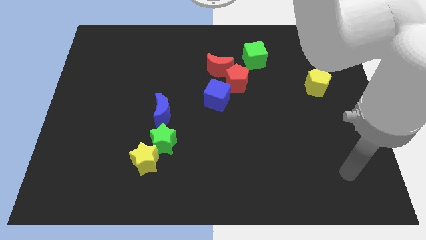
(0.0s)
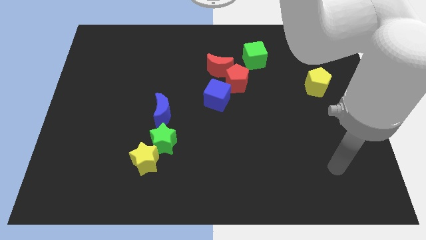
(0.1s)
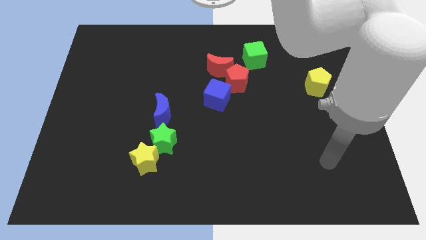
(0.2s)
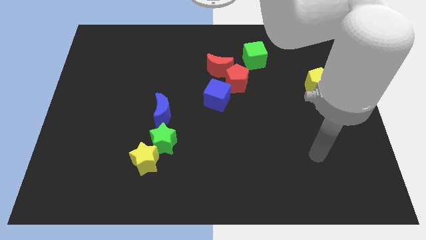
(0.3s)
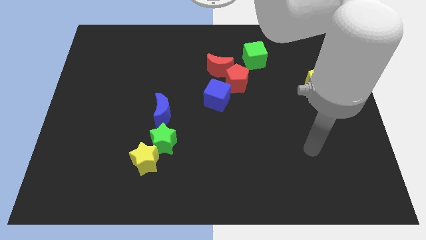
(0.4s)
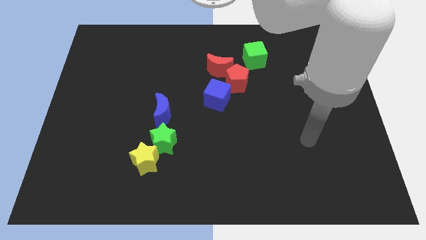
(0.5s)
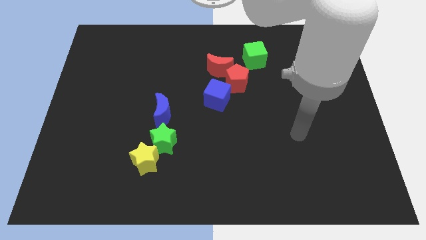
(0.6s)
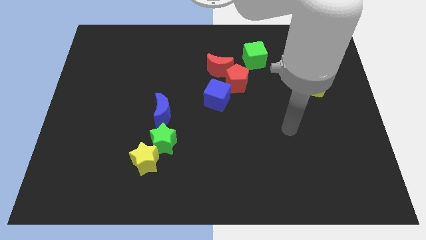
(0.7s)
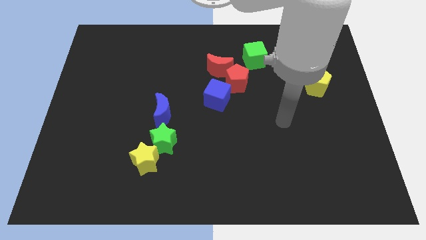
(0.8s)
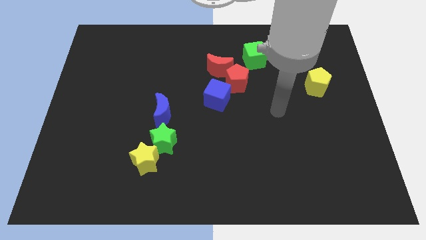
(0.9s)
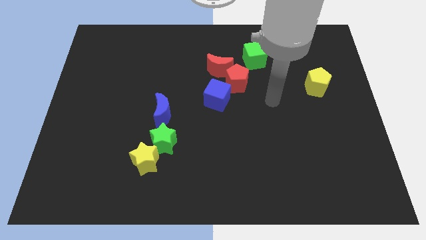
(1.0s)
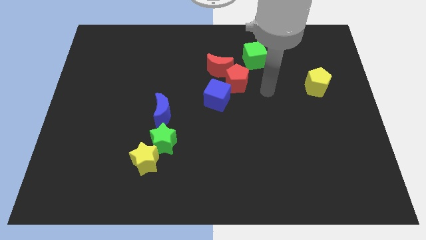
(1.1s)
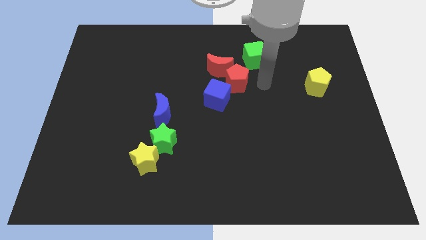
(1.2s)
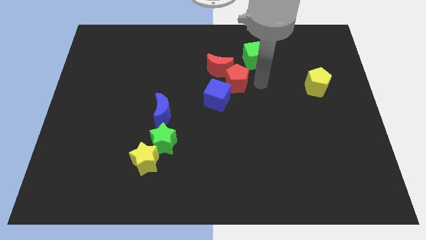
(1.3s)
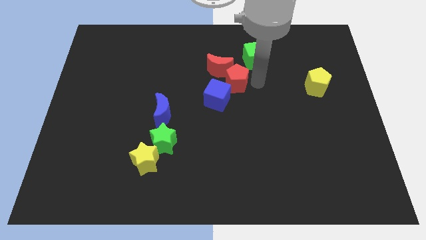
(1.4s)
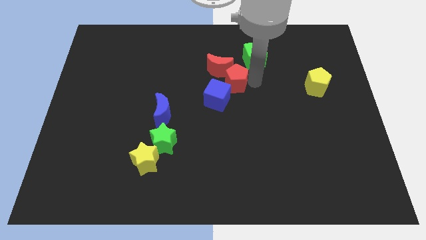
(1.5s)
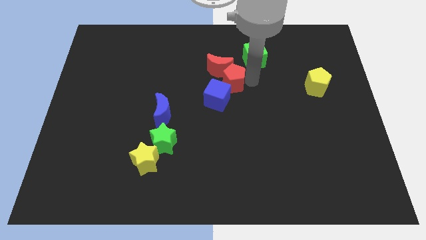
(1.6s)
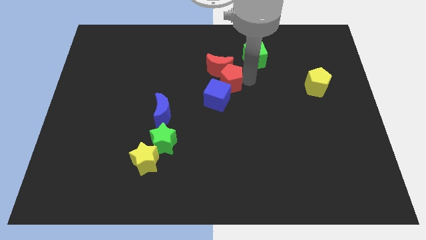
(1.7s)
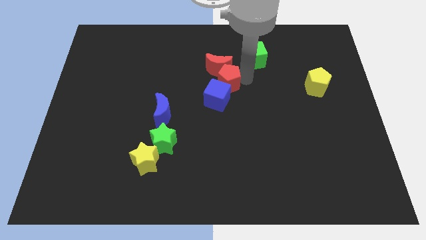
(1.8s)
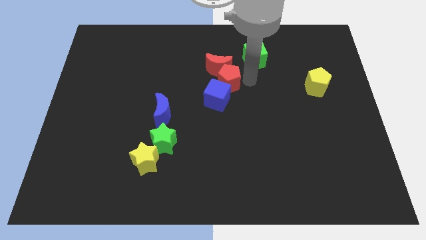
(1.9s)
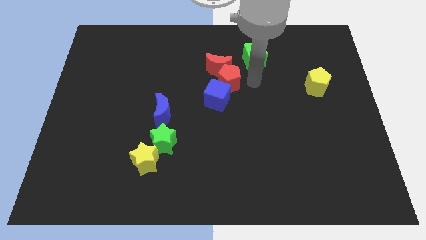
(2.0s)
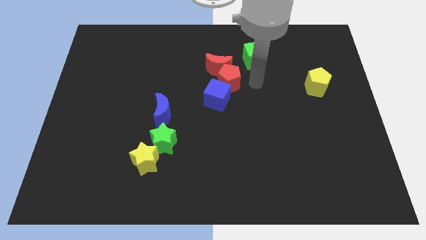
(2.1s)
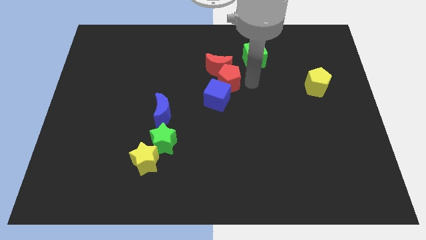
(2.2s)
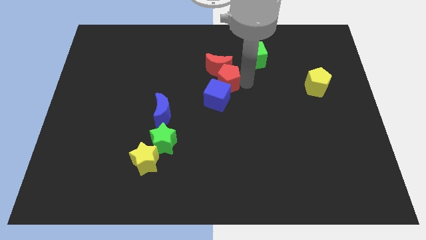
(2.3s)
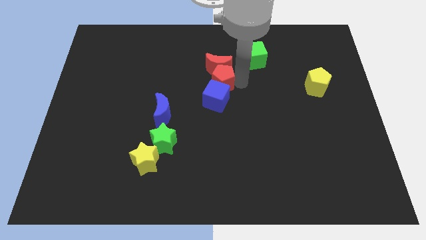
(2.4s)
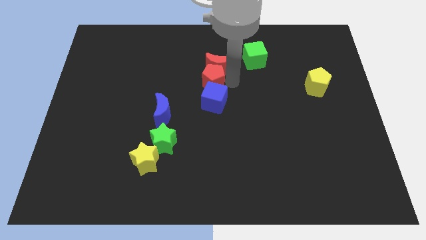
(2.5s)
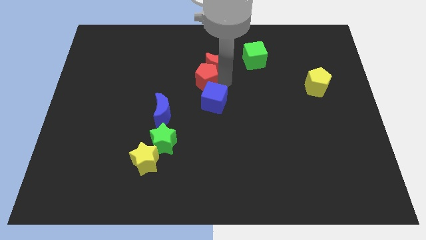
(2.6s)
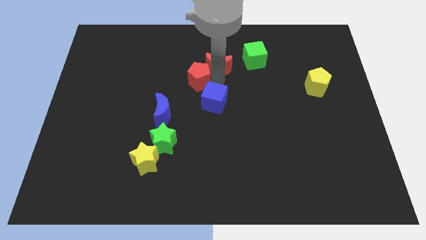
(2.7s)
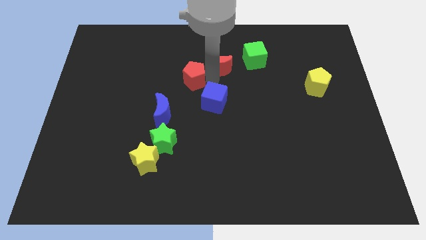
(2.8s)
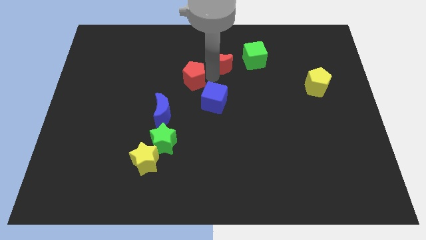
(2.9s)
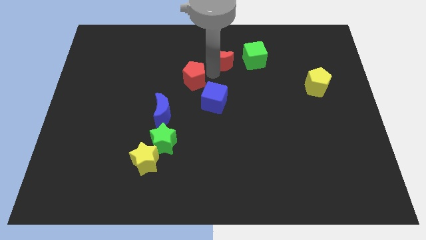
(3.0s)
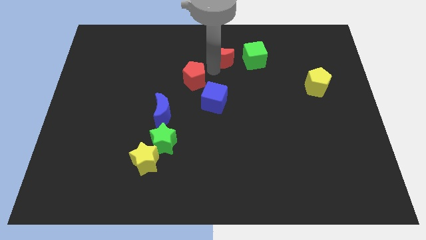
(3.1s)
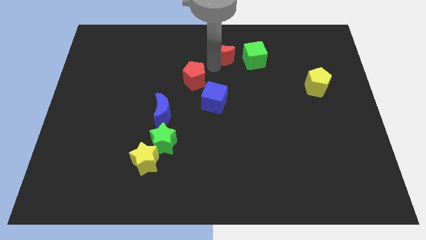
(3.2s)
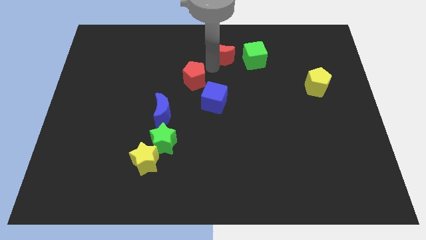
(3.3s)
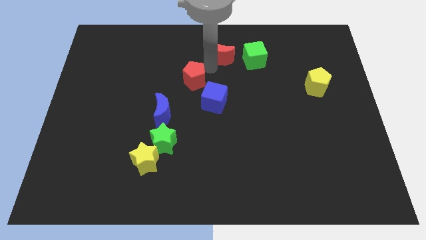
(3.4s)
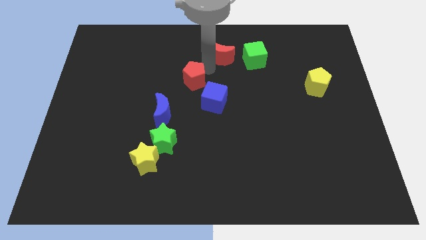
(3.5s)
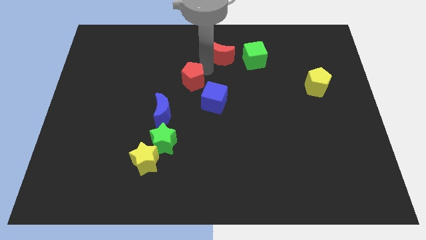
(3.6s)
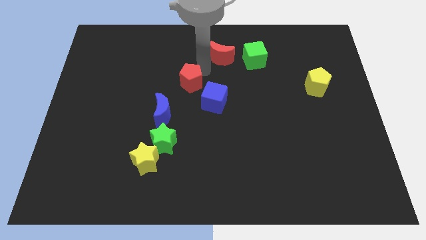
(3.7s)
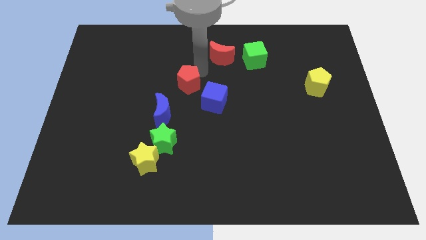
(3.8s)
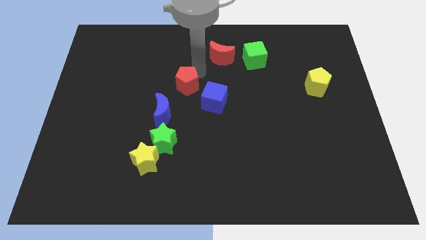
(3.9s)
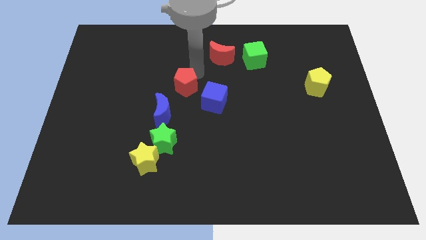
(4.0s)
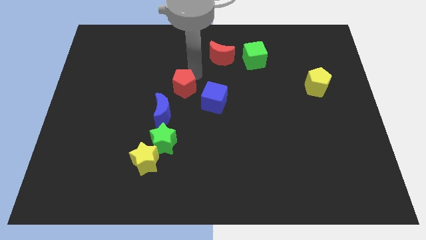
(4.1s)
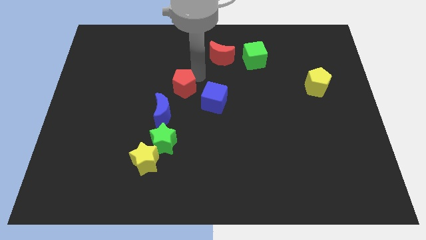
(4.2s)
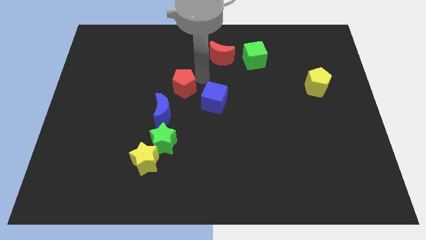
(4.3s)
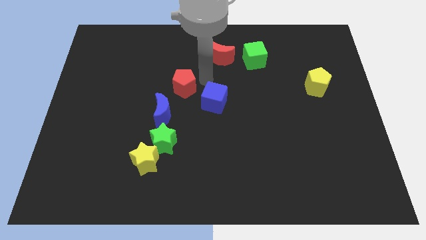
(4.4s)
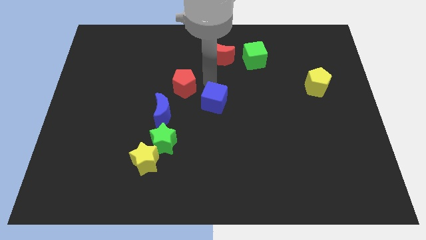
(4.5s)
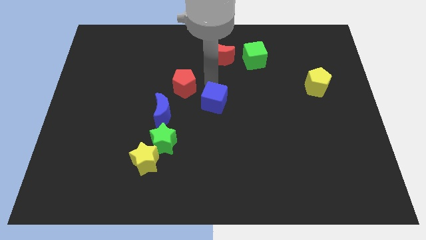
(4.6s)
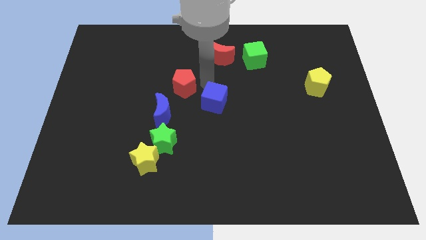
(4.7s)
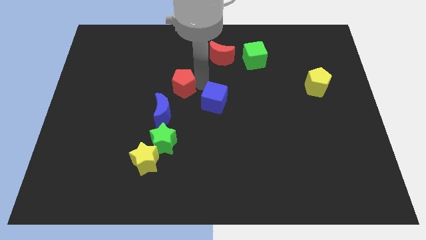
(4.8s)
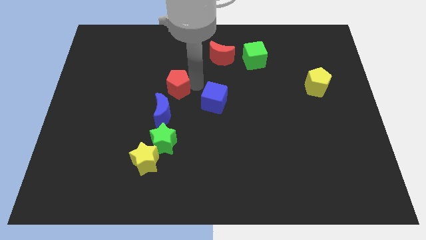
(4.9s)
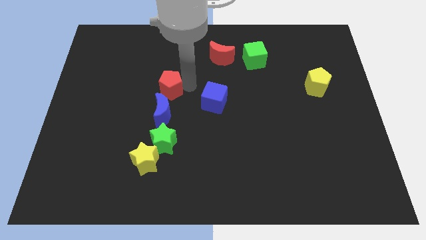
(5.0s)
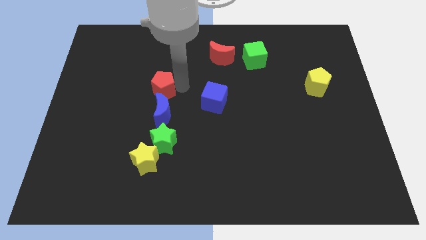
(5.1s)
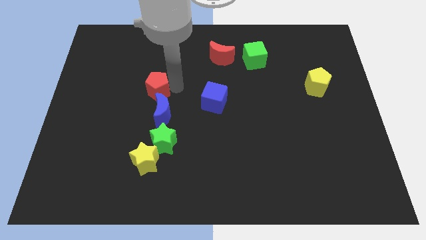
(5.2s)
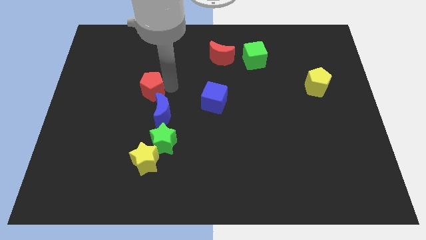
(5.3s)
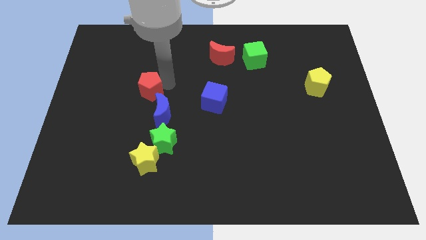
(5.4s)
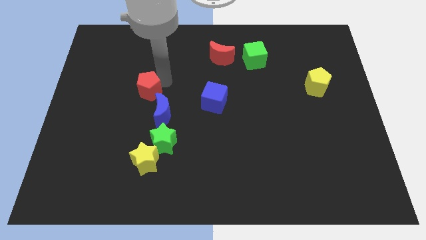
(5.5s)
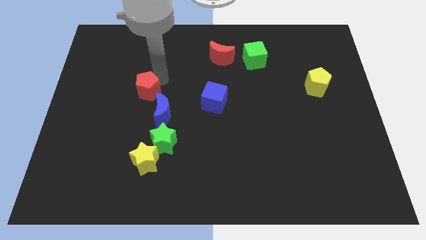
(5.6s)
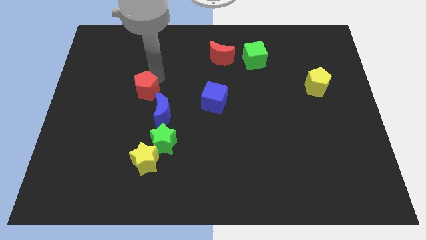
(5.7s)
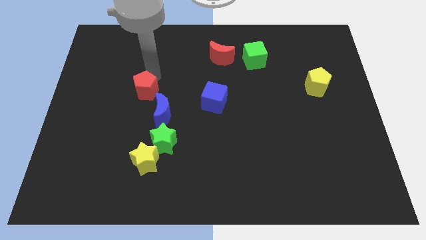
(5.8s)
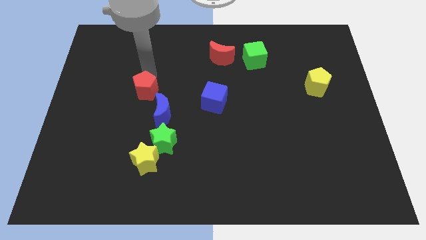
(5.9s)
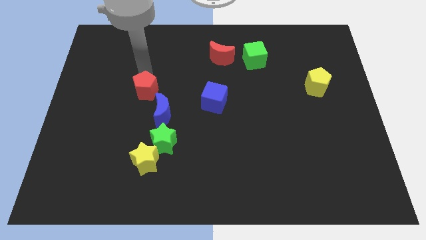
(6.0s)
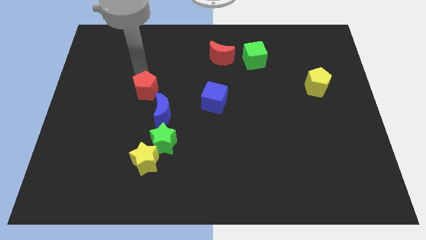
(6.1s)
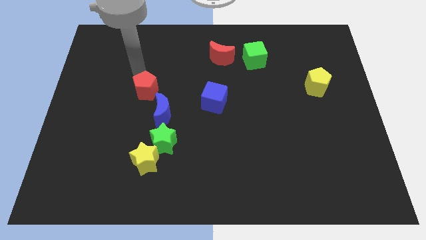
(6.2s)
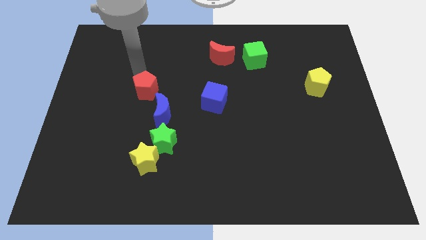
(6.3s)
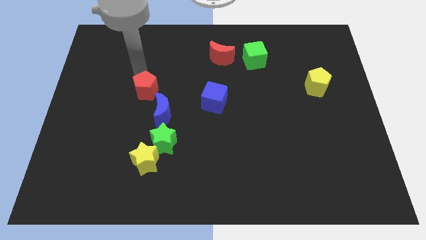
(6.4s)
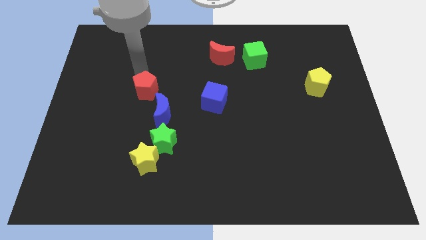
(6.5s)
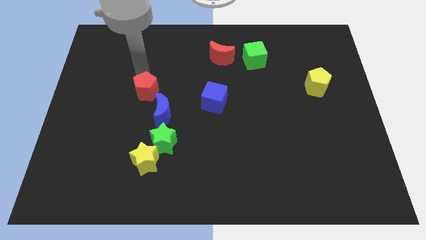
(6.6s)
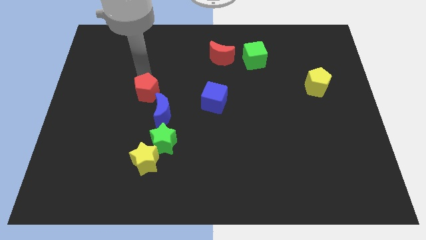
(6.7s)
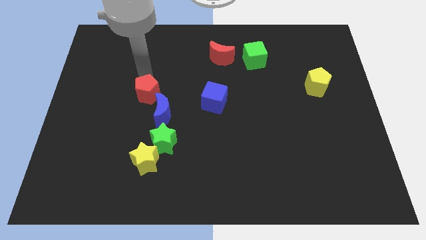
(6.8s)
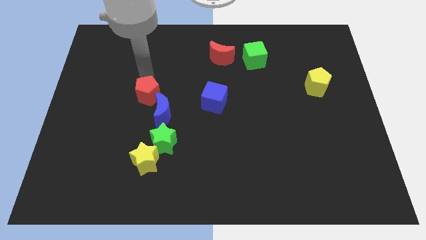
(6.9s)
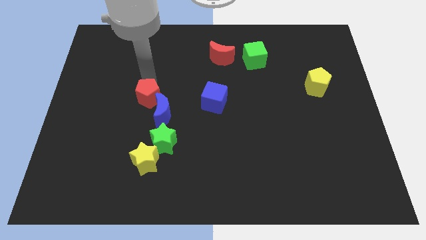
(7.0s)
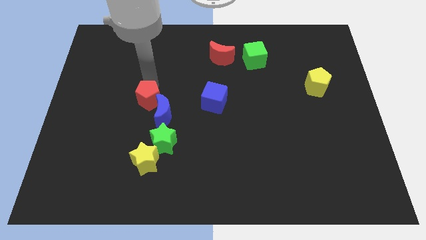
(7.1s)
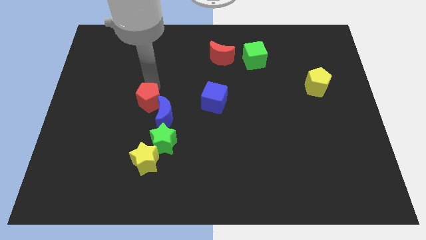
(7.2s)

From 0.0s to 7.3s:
slide the red pentagon to the top of the yellow star
